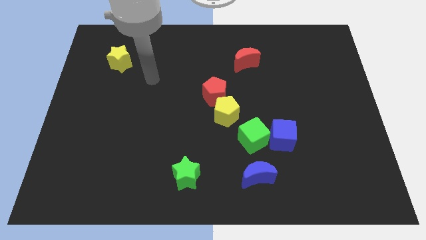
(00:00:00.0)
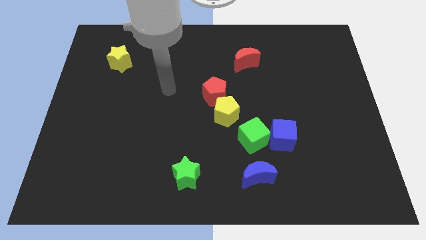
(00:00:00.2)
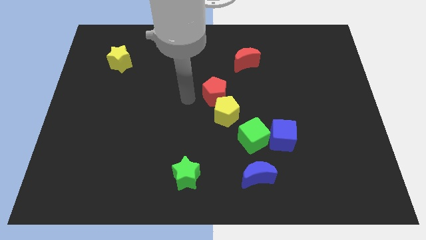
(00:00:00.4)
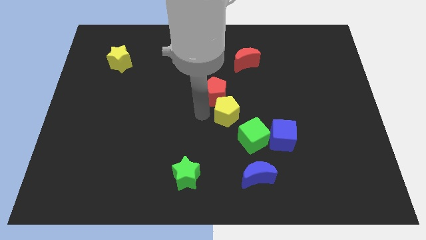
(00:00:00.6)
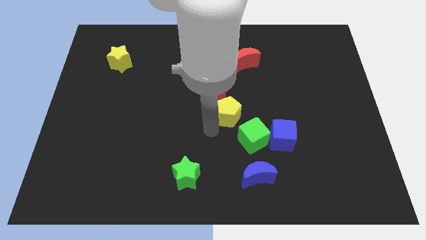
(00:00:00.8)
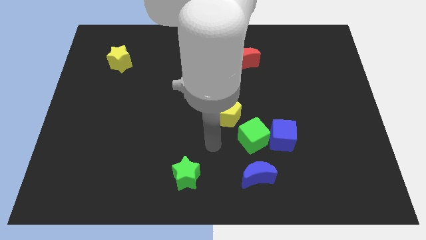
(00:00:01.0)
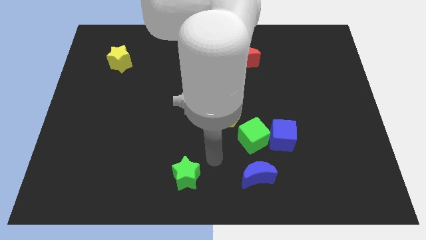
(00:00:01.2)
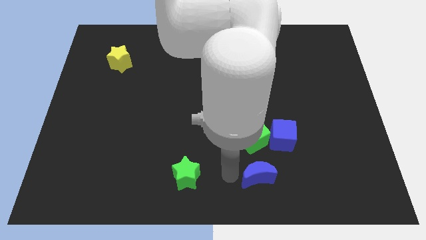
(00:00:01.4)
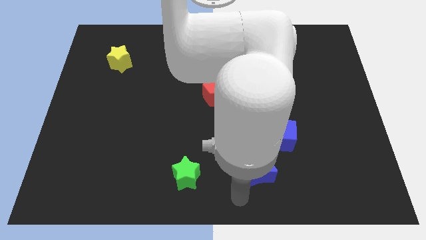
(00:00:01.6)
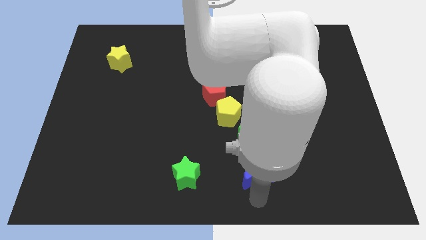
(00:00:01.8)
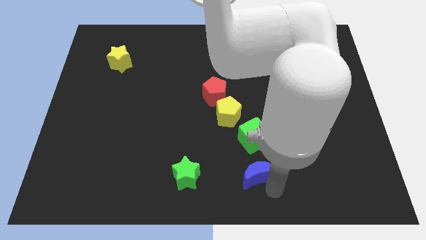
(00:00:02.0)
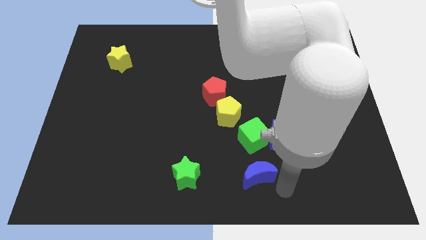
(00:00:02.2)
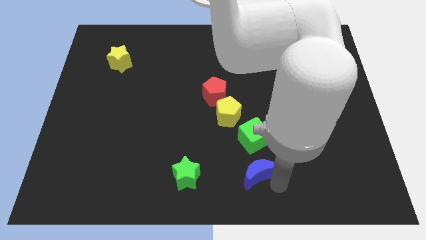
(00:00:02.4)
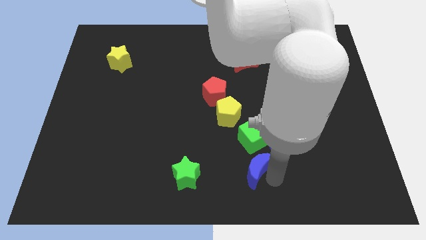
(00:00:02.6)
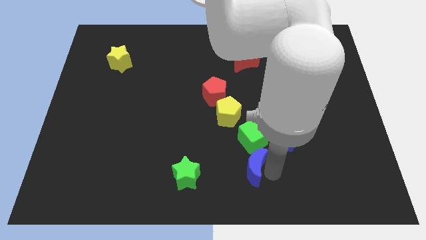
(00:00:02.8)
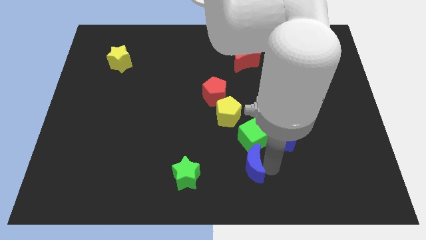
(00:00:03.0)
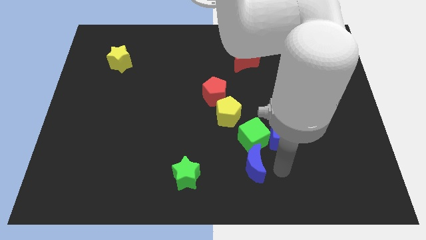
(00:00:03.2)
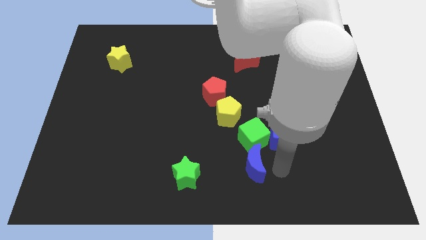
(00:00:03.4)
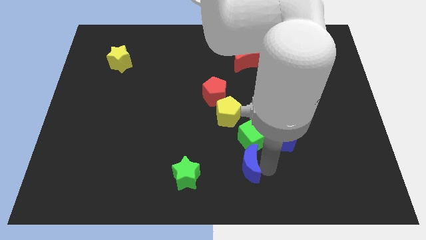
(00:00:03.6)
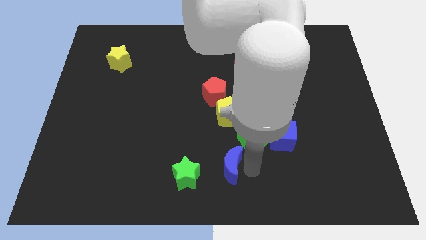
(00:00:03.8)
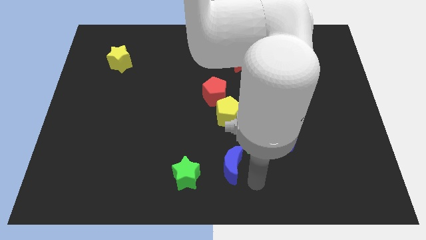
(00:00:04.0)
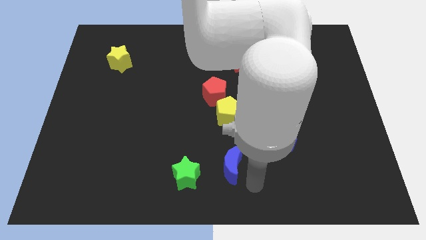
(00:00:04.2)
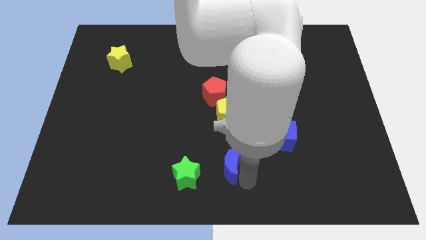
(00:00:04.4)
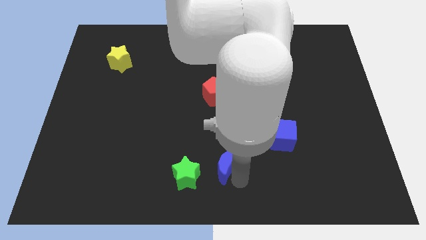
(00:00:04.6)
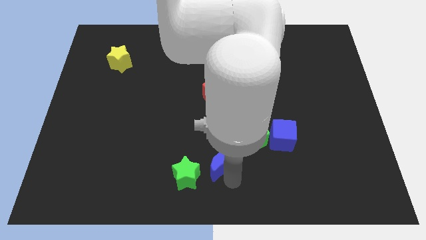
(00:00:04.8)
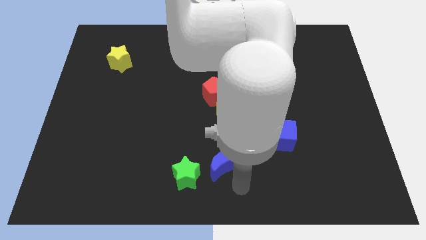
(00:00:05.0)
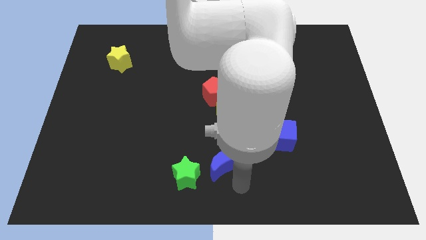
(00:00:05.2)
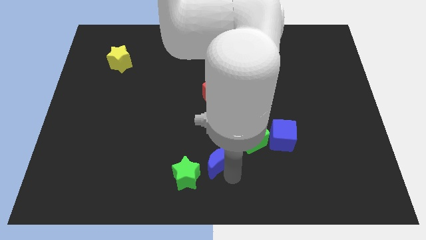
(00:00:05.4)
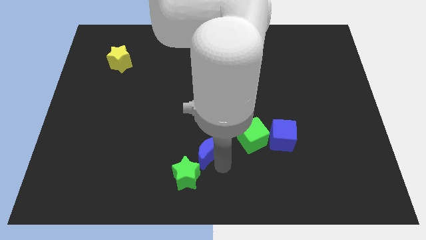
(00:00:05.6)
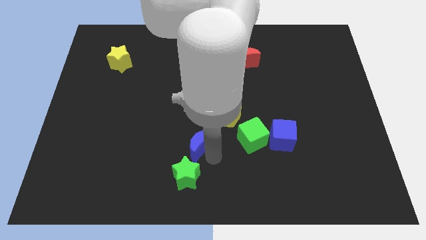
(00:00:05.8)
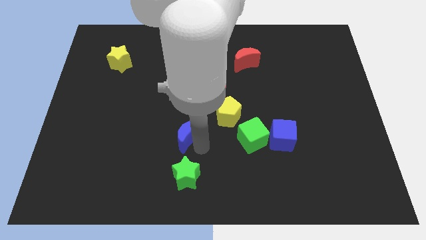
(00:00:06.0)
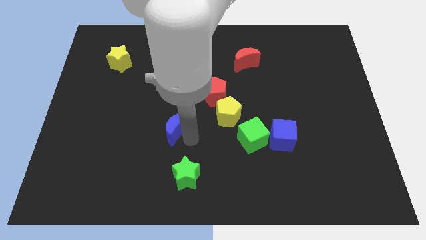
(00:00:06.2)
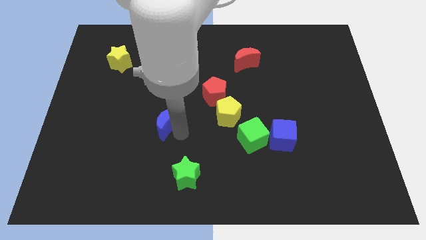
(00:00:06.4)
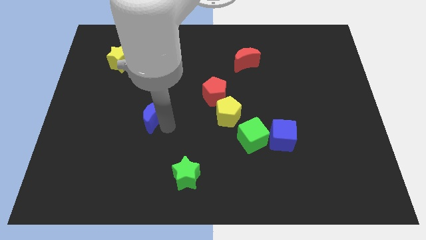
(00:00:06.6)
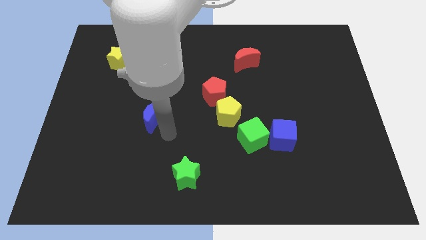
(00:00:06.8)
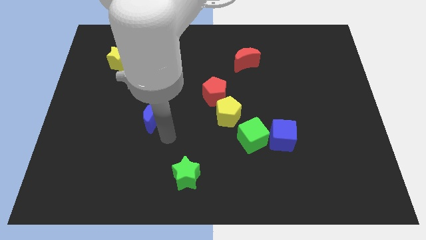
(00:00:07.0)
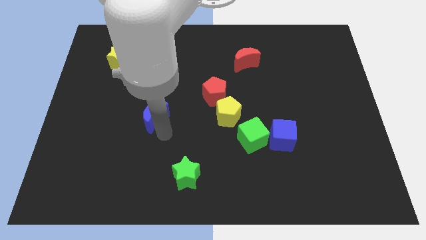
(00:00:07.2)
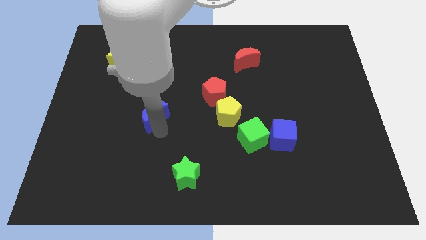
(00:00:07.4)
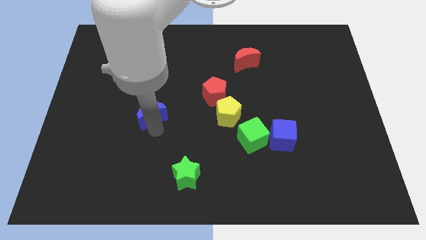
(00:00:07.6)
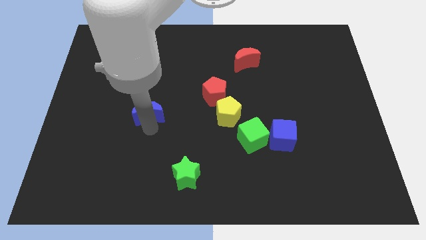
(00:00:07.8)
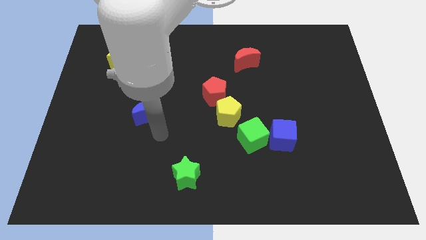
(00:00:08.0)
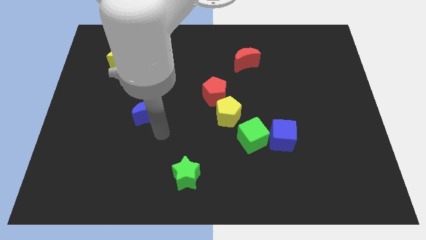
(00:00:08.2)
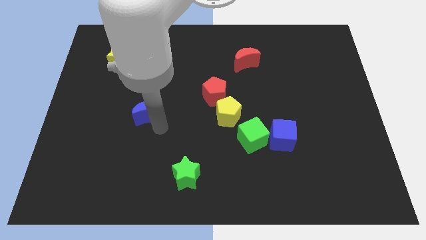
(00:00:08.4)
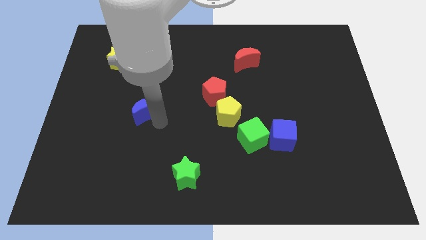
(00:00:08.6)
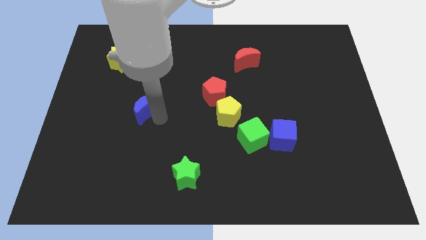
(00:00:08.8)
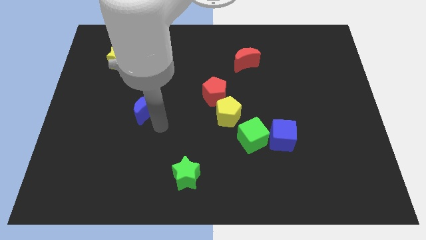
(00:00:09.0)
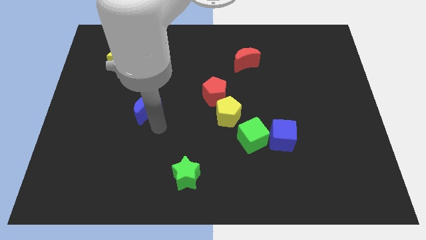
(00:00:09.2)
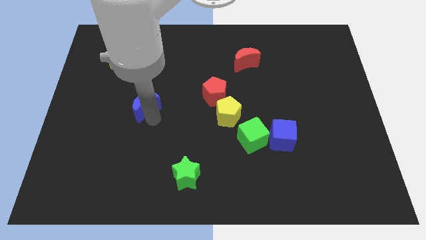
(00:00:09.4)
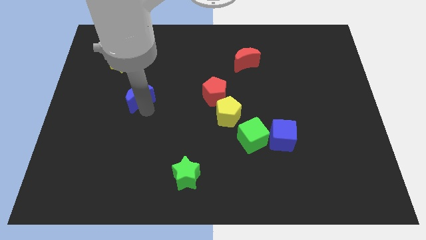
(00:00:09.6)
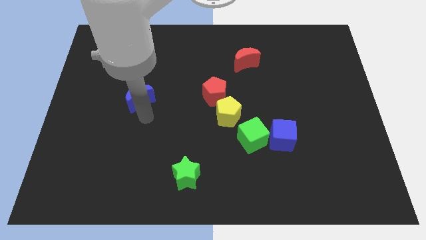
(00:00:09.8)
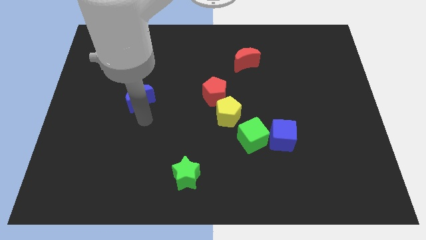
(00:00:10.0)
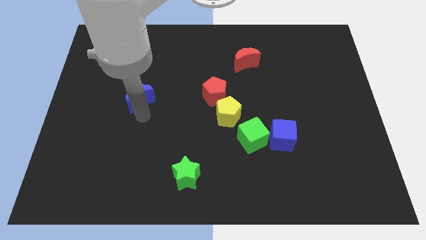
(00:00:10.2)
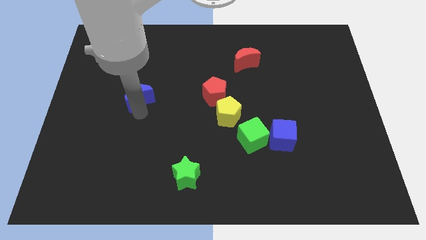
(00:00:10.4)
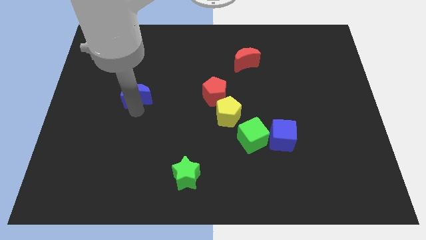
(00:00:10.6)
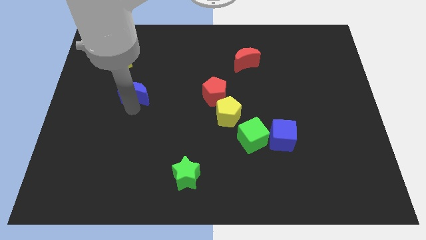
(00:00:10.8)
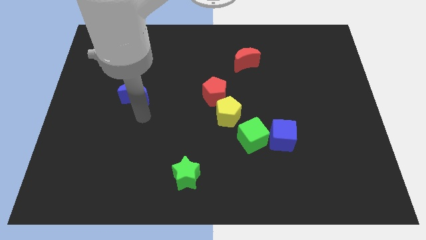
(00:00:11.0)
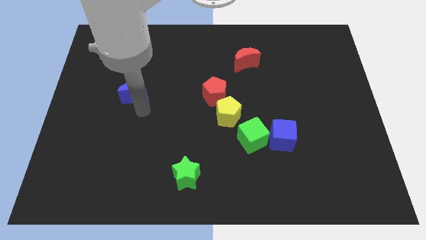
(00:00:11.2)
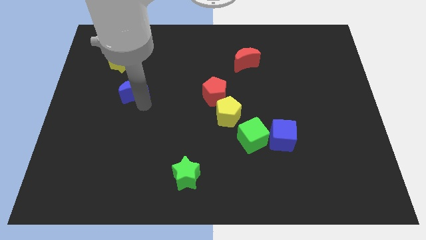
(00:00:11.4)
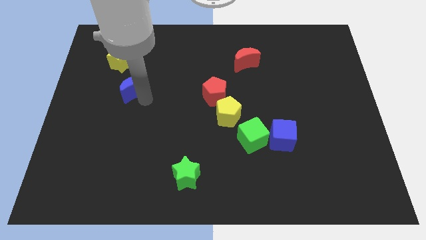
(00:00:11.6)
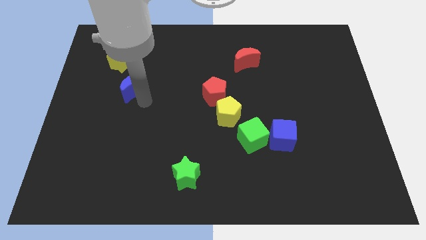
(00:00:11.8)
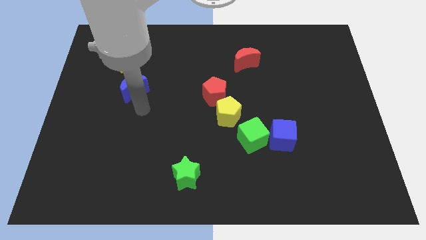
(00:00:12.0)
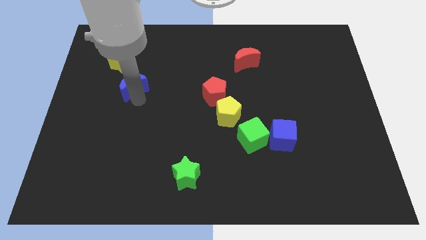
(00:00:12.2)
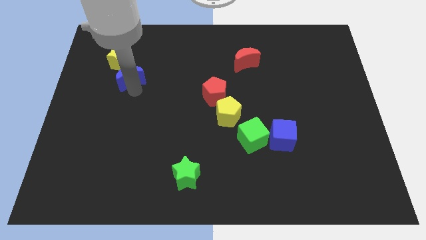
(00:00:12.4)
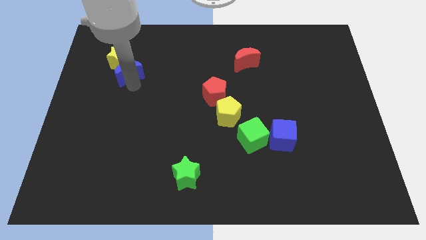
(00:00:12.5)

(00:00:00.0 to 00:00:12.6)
slide the blue moon next to the yellow star
